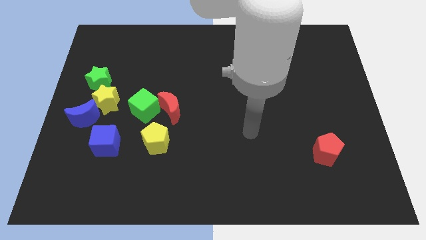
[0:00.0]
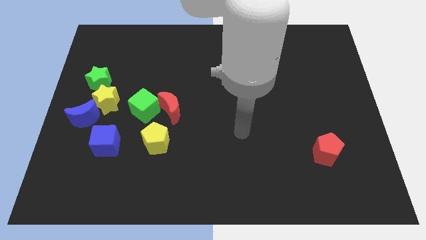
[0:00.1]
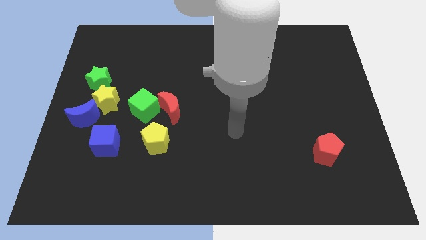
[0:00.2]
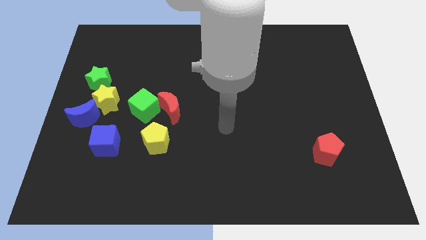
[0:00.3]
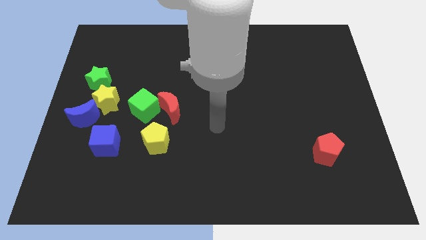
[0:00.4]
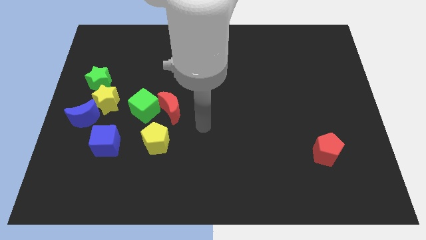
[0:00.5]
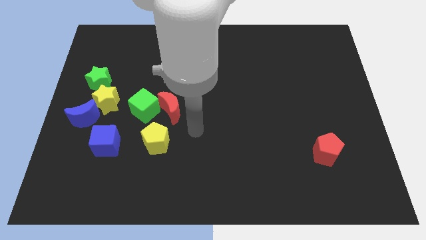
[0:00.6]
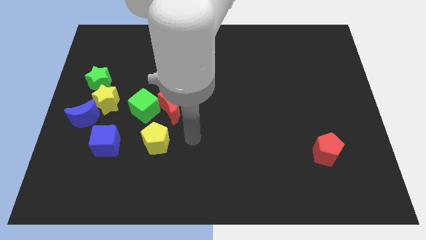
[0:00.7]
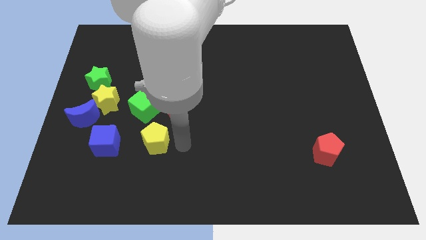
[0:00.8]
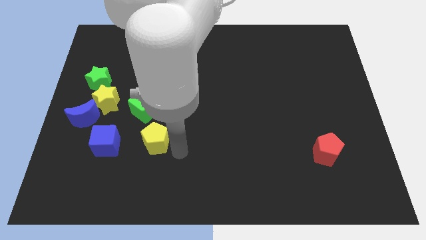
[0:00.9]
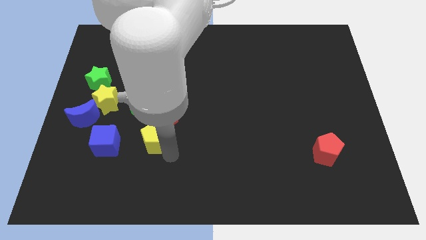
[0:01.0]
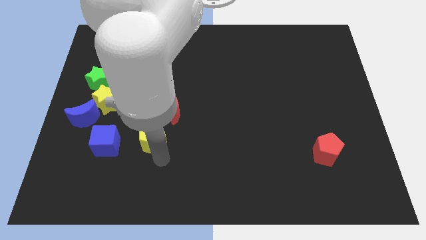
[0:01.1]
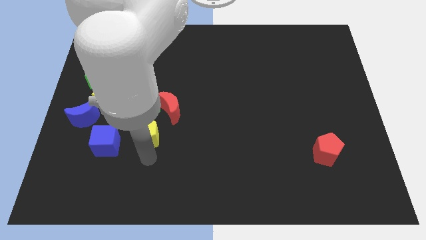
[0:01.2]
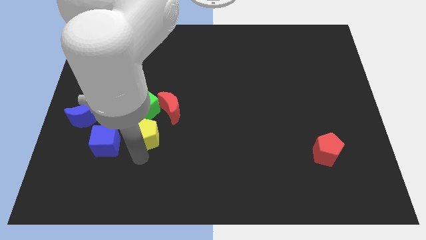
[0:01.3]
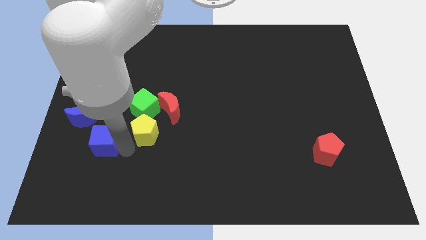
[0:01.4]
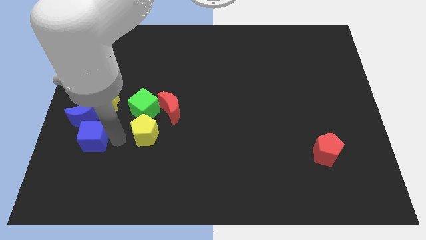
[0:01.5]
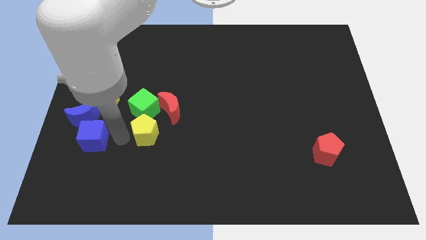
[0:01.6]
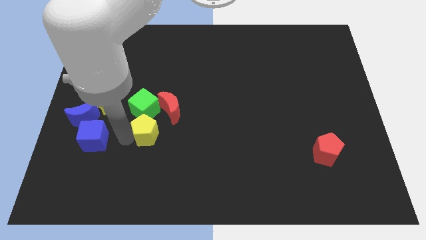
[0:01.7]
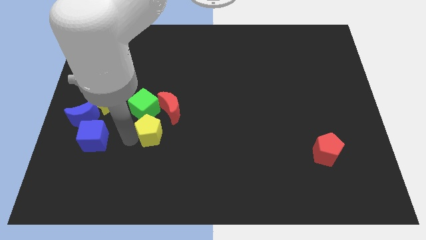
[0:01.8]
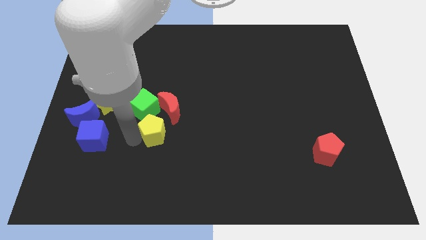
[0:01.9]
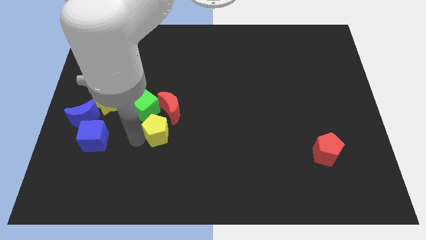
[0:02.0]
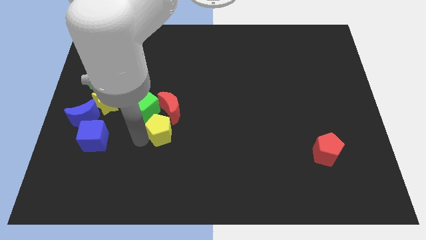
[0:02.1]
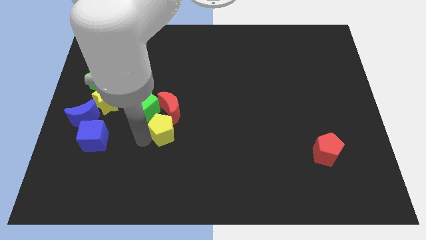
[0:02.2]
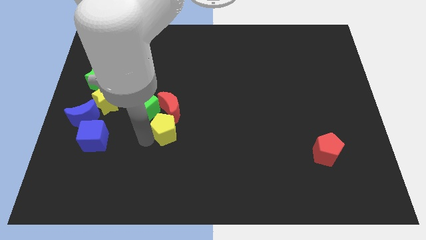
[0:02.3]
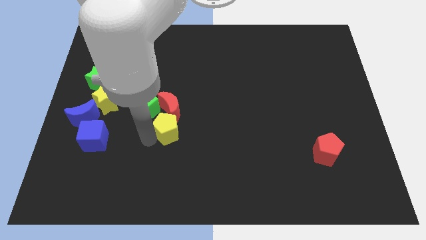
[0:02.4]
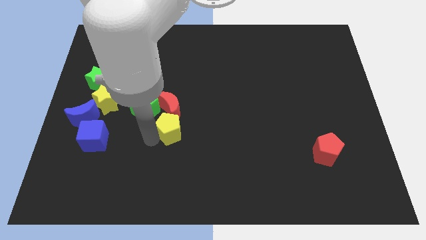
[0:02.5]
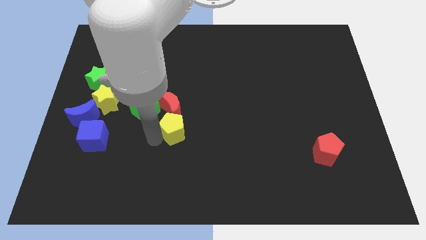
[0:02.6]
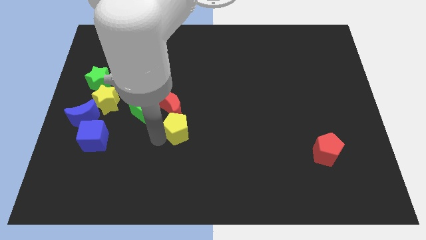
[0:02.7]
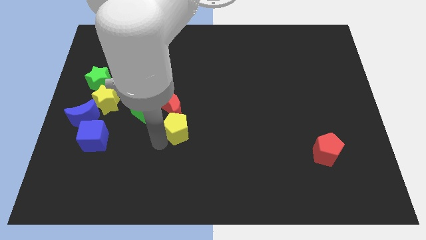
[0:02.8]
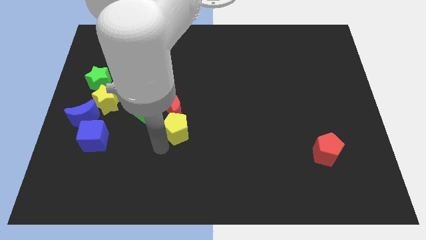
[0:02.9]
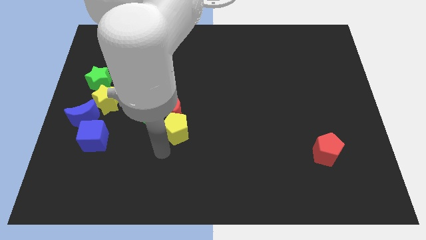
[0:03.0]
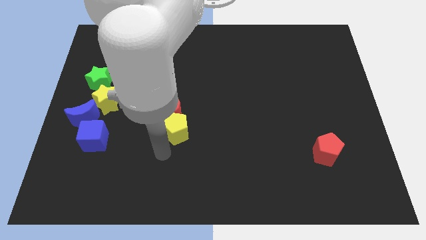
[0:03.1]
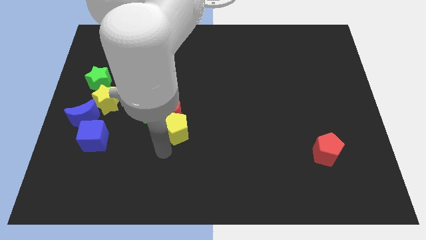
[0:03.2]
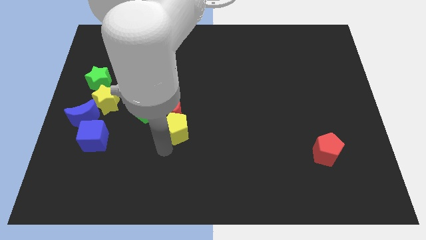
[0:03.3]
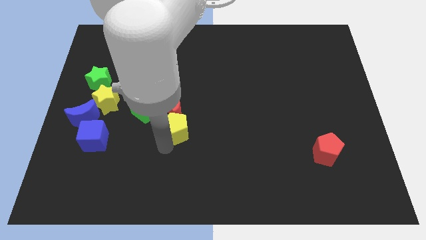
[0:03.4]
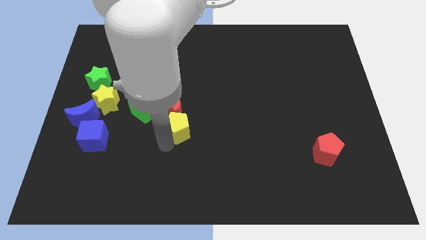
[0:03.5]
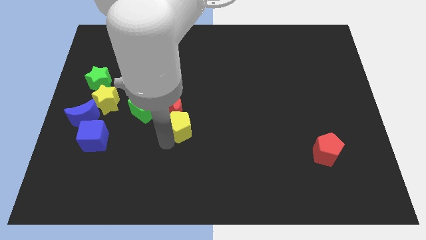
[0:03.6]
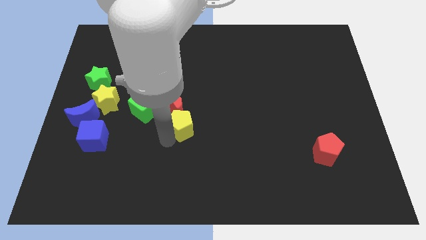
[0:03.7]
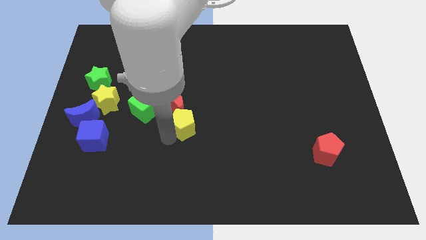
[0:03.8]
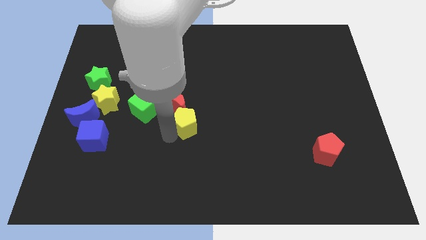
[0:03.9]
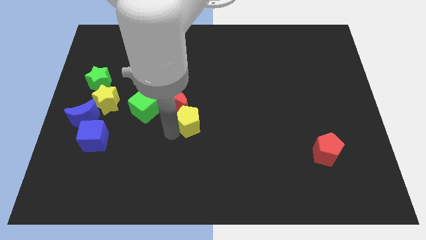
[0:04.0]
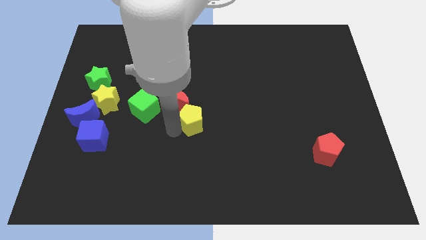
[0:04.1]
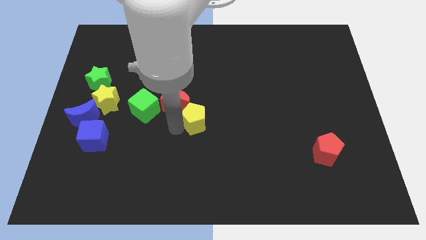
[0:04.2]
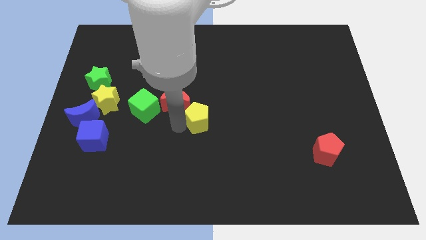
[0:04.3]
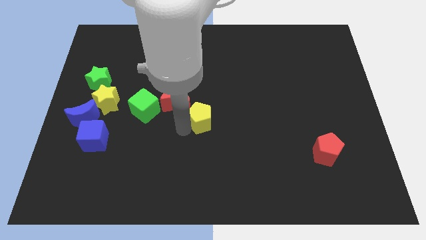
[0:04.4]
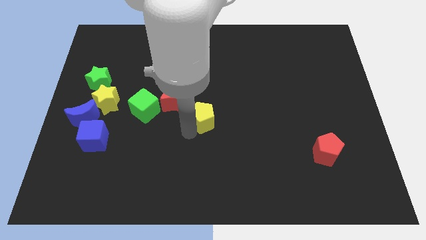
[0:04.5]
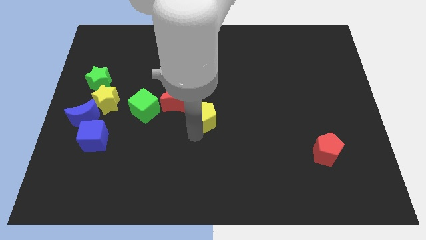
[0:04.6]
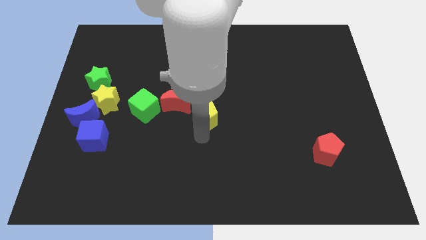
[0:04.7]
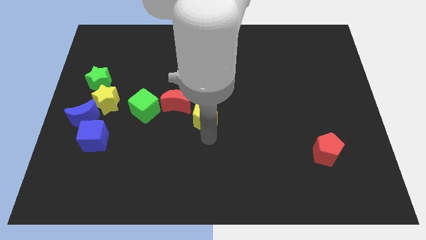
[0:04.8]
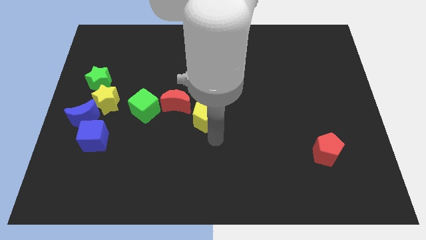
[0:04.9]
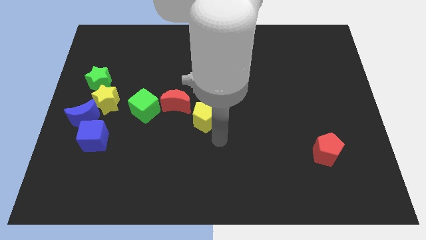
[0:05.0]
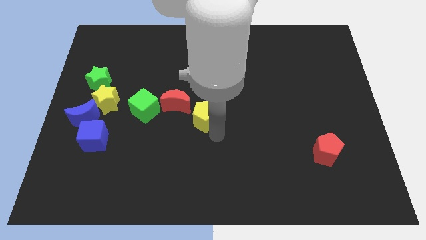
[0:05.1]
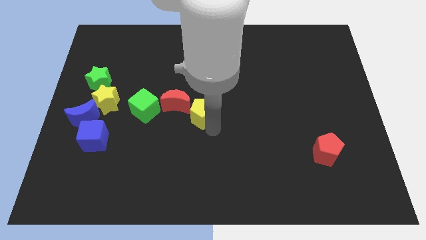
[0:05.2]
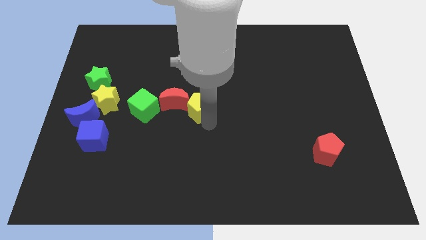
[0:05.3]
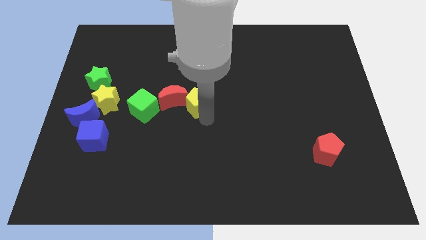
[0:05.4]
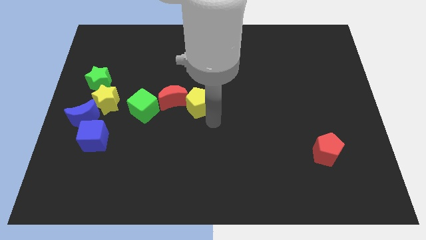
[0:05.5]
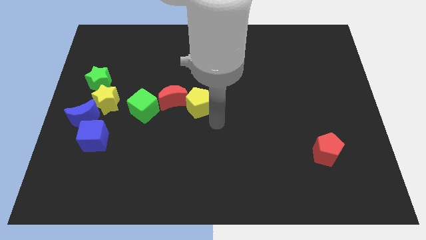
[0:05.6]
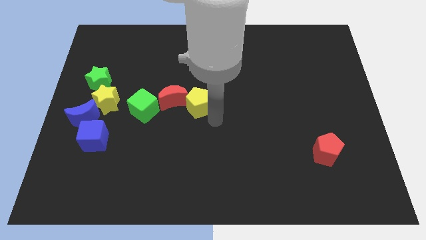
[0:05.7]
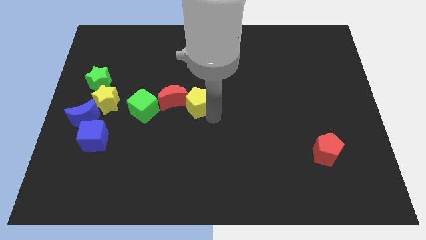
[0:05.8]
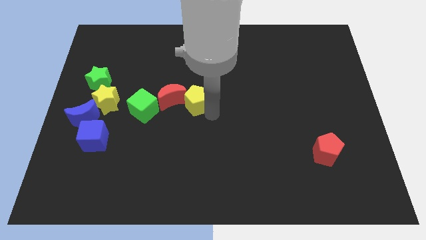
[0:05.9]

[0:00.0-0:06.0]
push the yellow pentagon slightly upwards

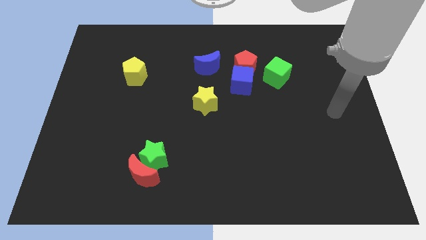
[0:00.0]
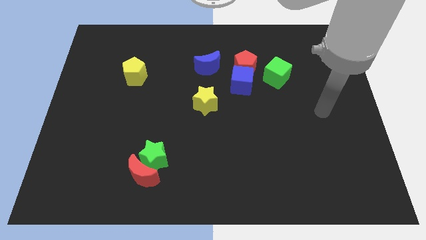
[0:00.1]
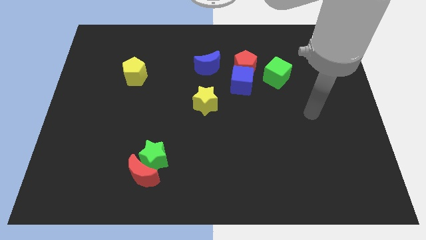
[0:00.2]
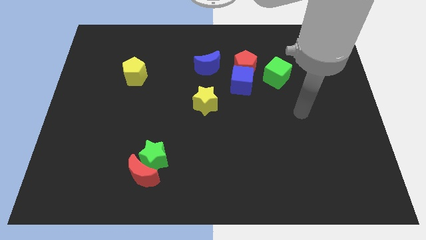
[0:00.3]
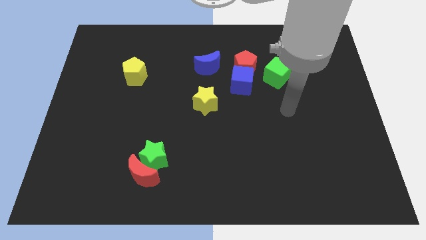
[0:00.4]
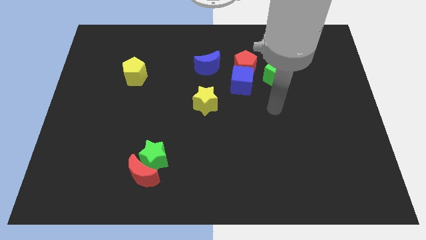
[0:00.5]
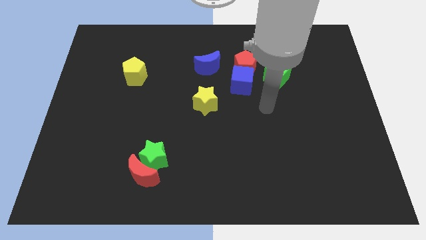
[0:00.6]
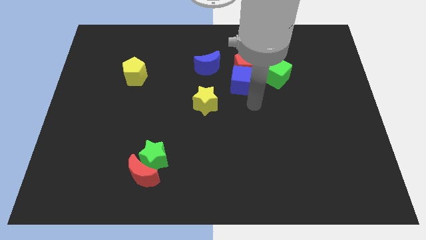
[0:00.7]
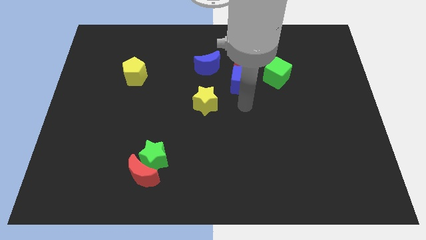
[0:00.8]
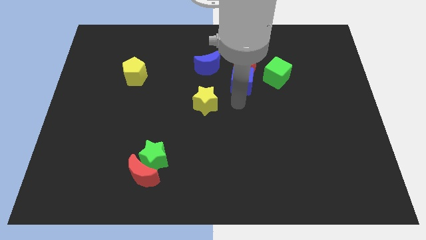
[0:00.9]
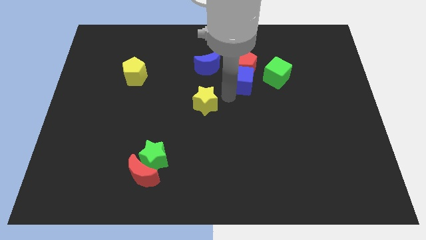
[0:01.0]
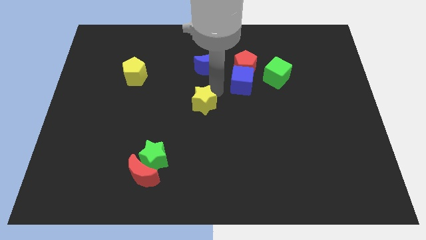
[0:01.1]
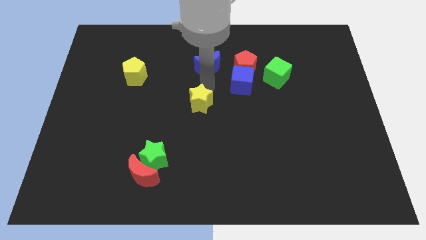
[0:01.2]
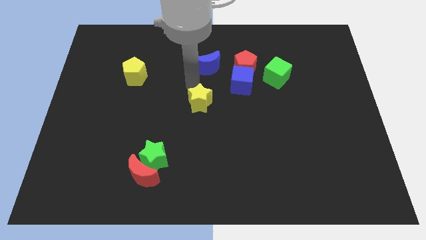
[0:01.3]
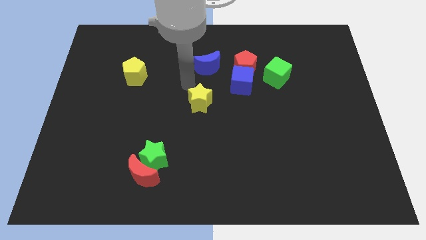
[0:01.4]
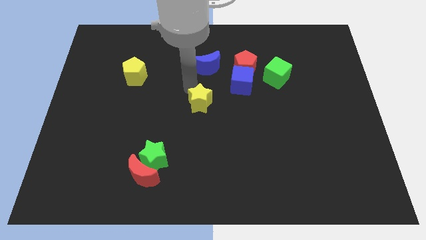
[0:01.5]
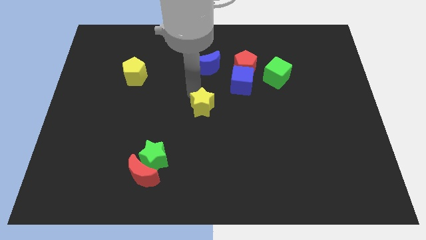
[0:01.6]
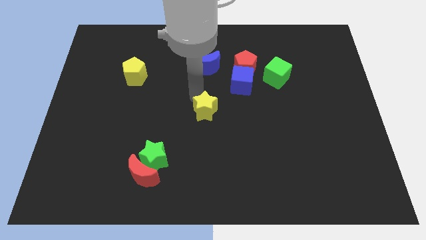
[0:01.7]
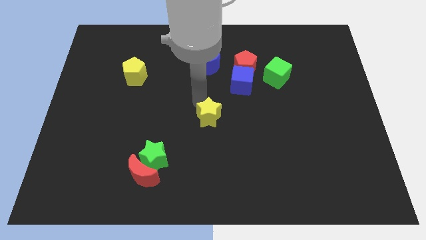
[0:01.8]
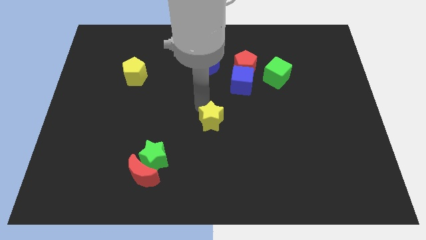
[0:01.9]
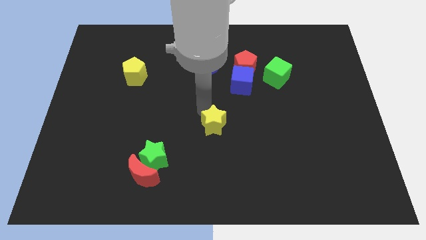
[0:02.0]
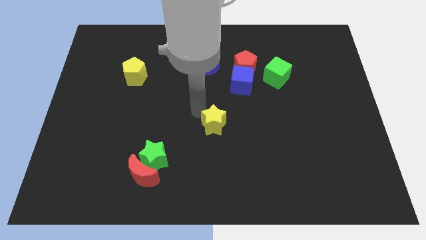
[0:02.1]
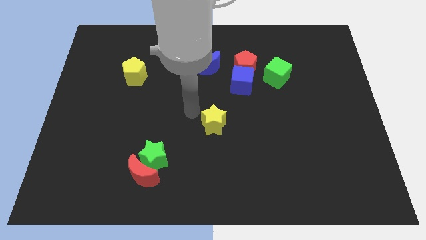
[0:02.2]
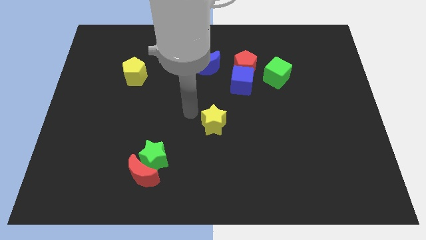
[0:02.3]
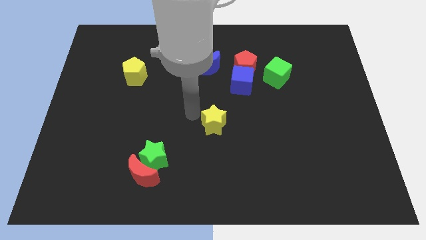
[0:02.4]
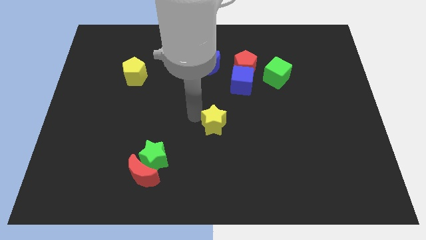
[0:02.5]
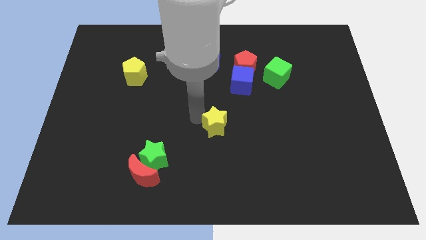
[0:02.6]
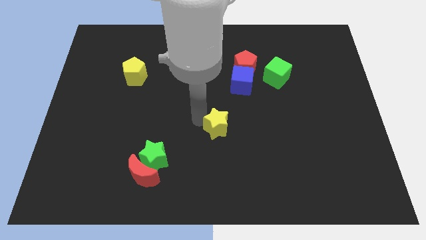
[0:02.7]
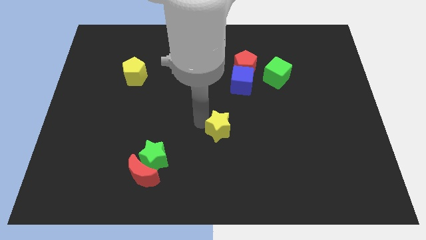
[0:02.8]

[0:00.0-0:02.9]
move the yellow star a little down and then right
